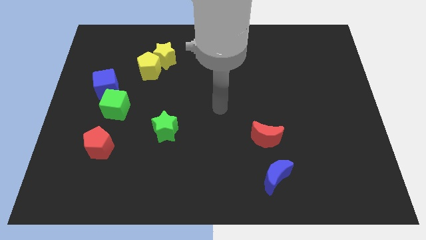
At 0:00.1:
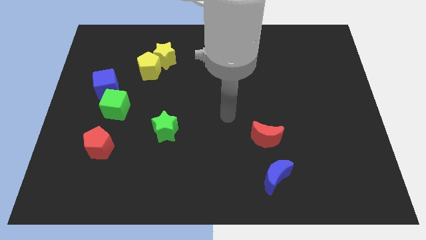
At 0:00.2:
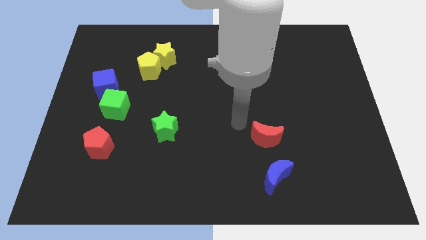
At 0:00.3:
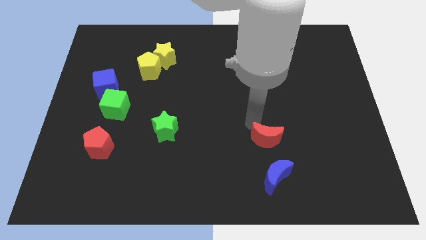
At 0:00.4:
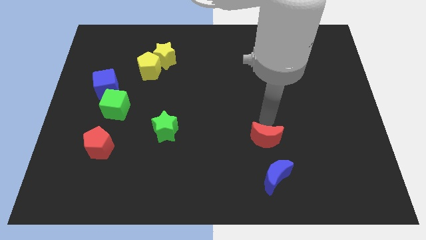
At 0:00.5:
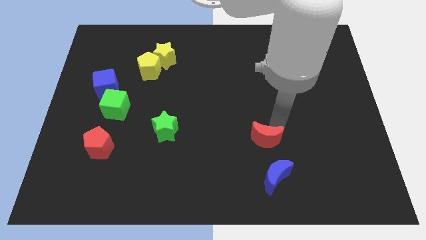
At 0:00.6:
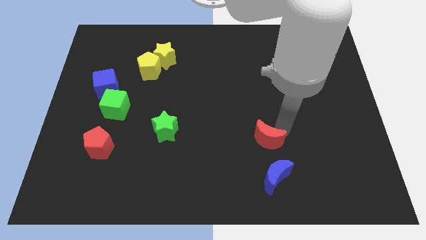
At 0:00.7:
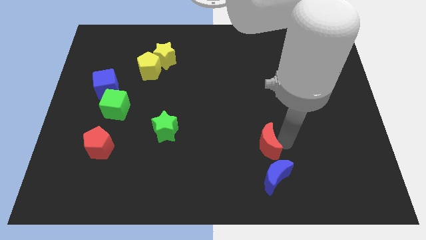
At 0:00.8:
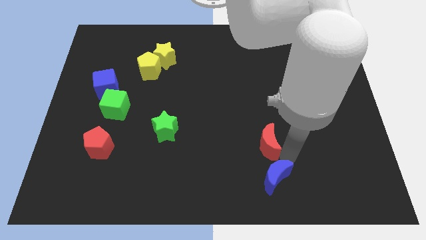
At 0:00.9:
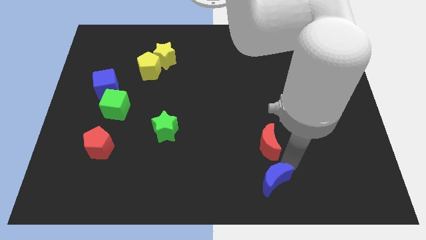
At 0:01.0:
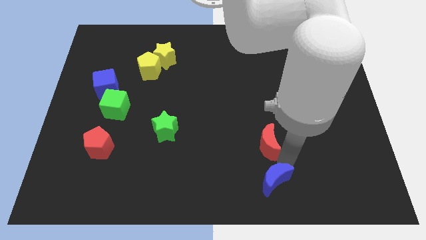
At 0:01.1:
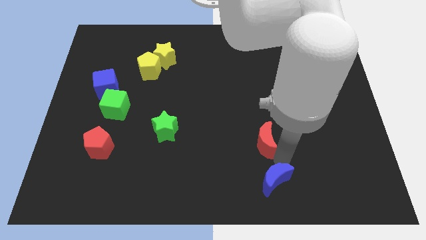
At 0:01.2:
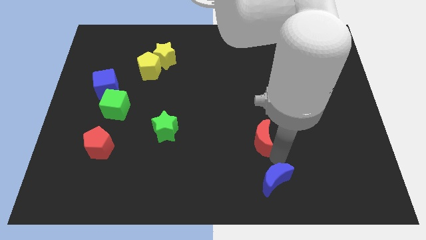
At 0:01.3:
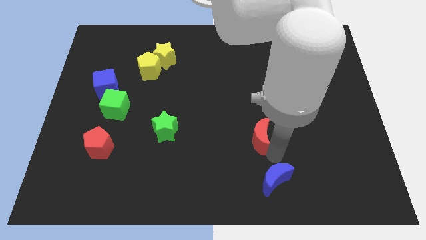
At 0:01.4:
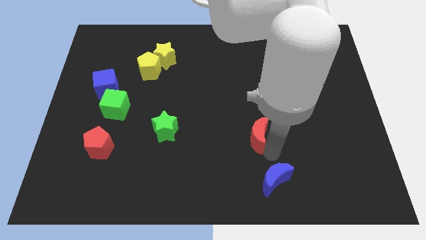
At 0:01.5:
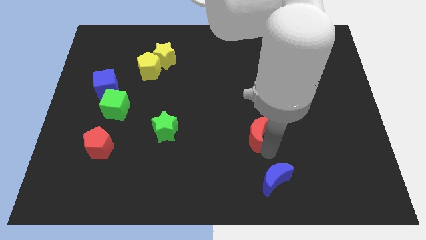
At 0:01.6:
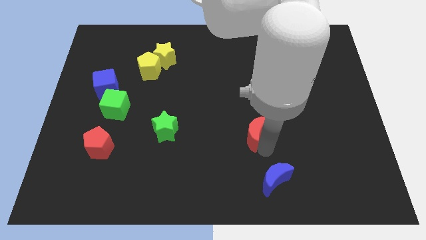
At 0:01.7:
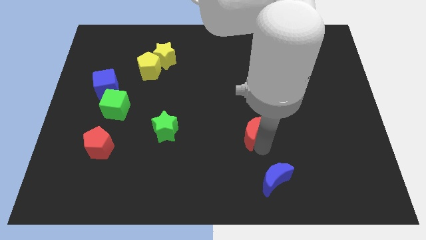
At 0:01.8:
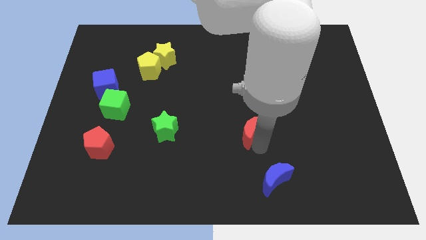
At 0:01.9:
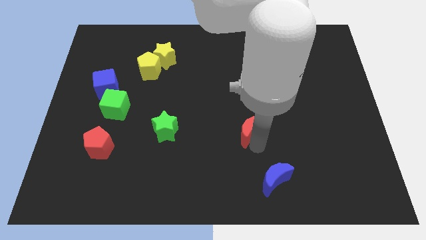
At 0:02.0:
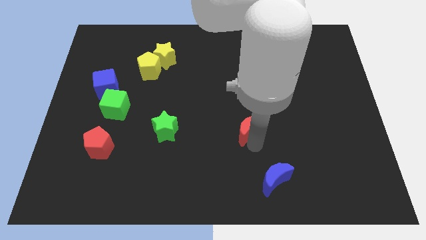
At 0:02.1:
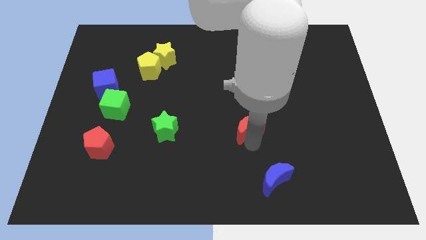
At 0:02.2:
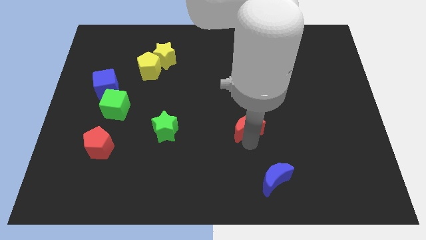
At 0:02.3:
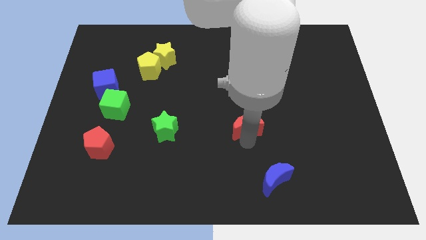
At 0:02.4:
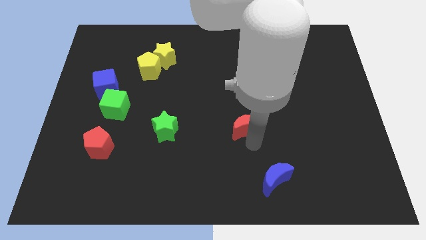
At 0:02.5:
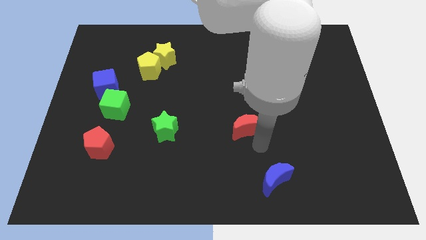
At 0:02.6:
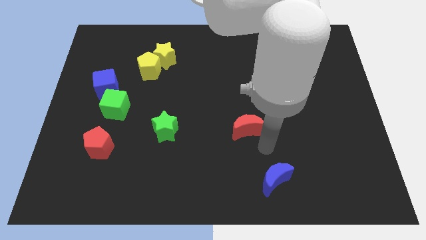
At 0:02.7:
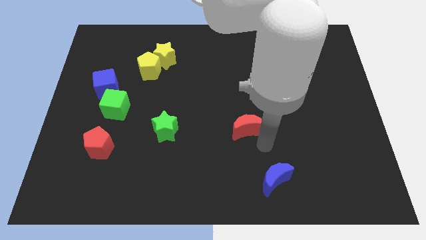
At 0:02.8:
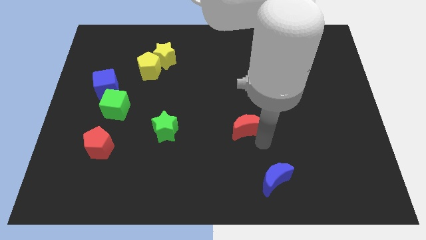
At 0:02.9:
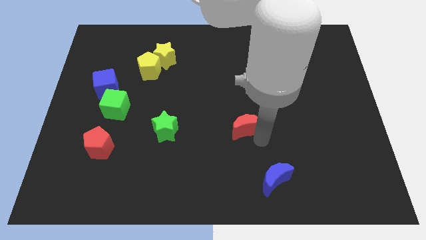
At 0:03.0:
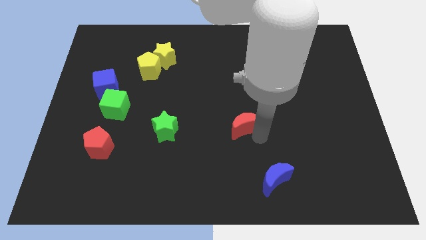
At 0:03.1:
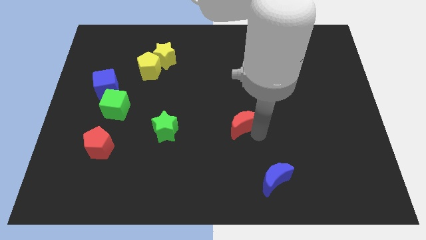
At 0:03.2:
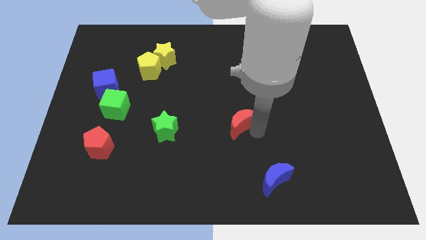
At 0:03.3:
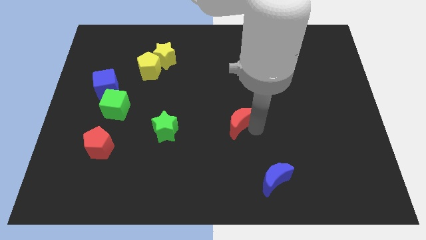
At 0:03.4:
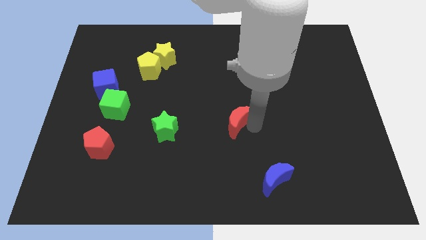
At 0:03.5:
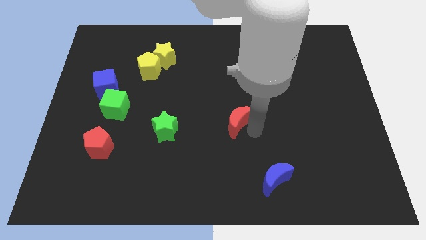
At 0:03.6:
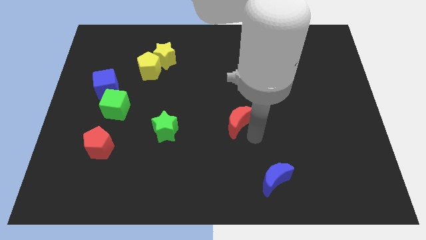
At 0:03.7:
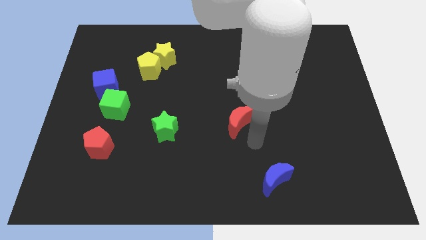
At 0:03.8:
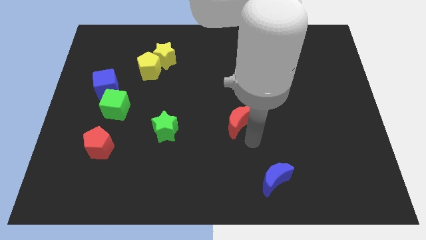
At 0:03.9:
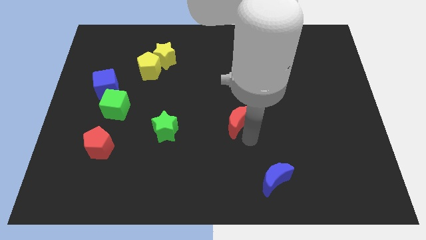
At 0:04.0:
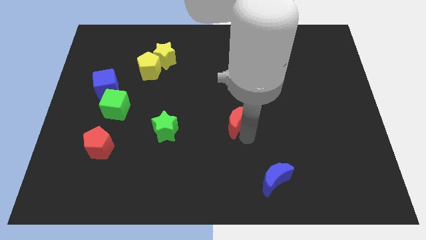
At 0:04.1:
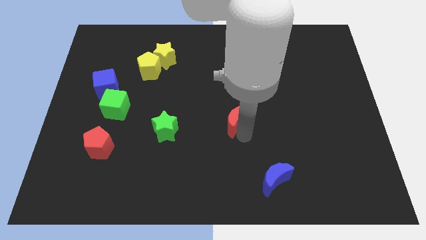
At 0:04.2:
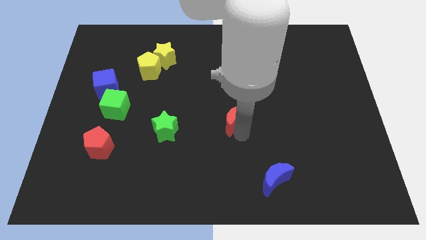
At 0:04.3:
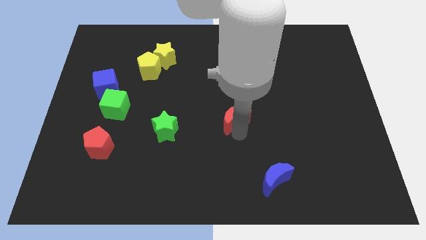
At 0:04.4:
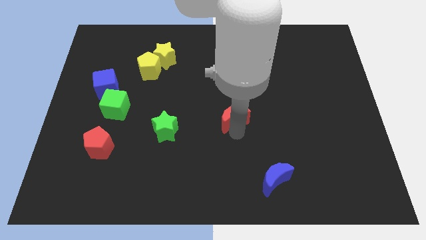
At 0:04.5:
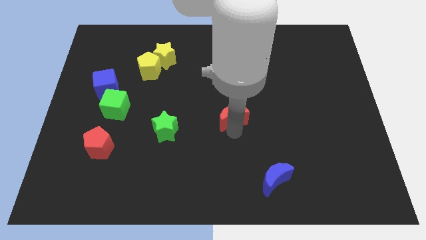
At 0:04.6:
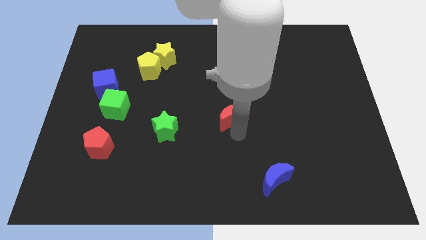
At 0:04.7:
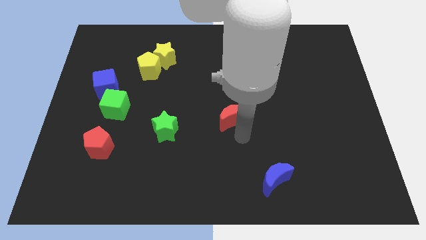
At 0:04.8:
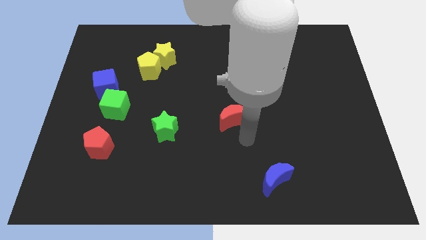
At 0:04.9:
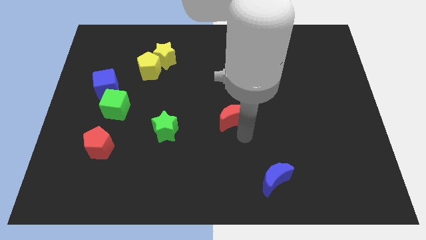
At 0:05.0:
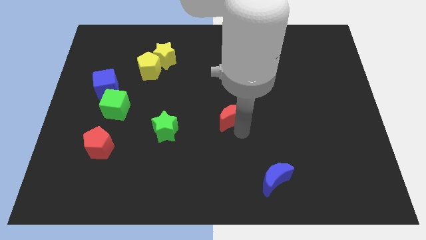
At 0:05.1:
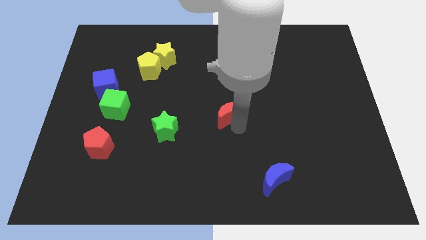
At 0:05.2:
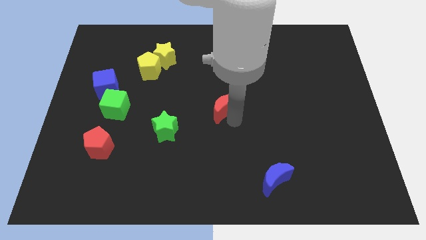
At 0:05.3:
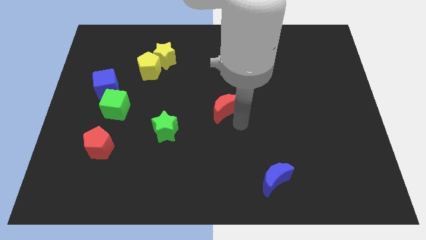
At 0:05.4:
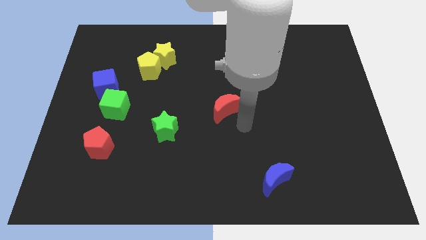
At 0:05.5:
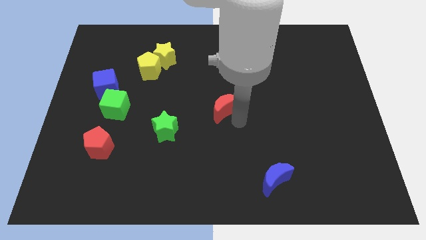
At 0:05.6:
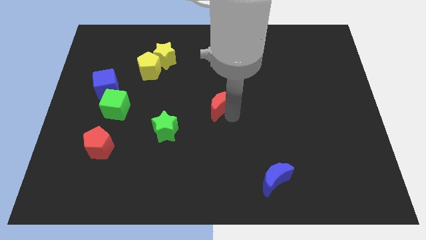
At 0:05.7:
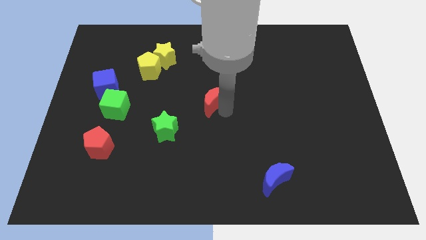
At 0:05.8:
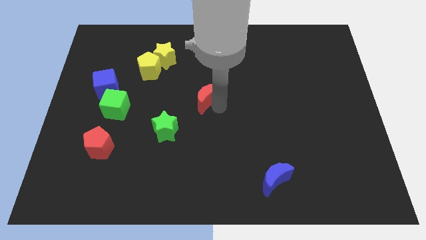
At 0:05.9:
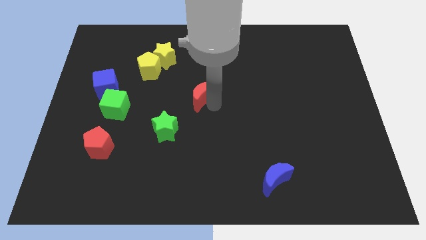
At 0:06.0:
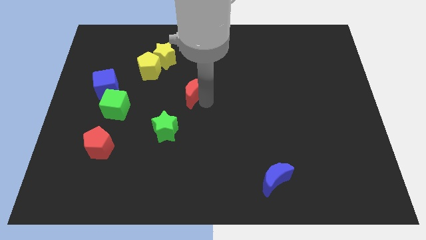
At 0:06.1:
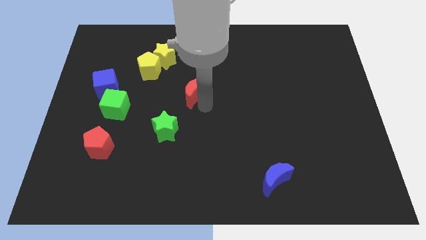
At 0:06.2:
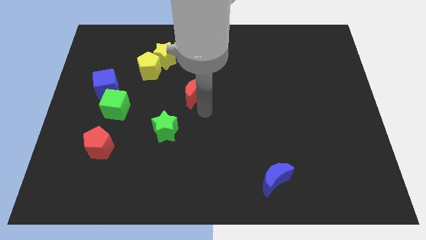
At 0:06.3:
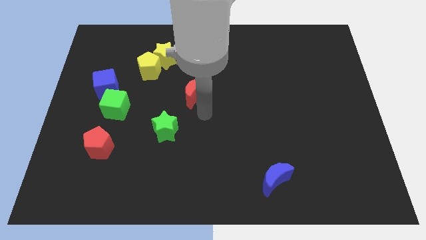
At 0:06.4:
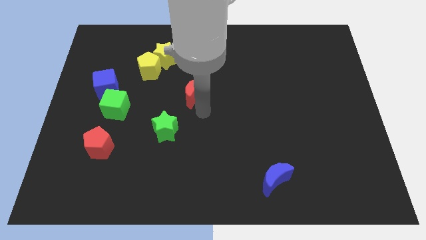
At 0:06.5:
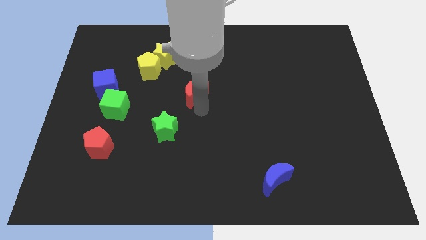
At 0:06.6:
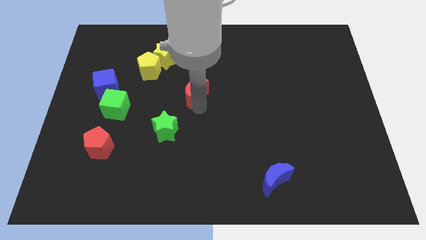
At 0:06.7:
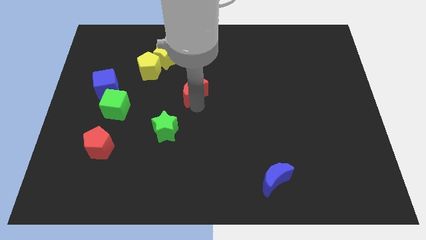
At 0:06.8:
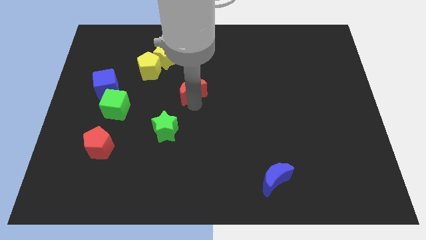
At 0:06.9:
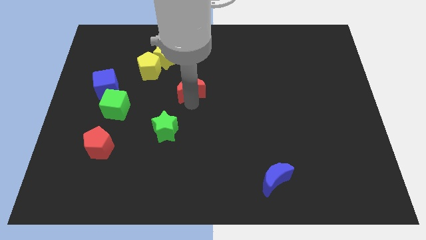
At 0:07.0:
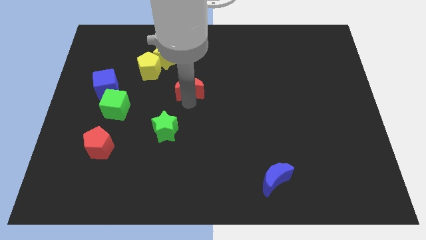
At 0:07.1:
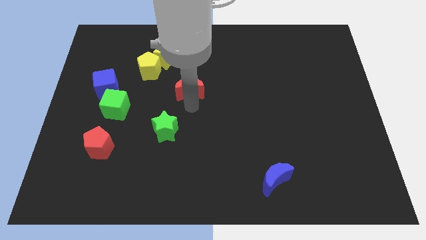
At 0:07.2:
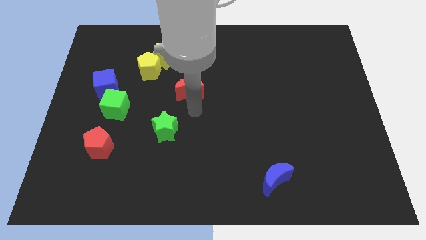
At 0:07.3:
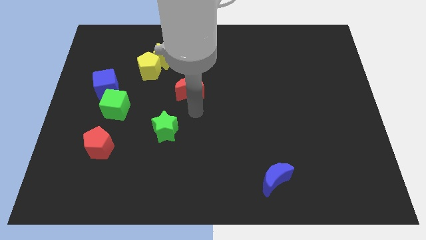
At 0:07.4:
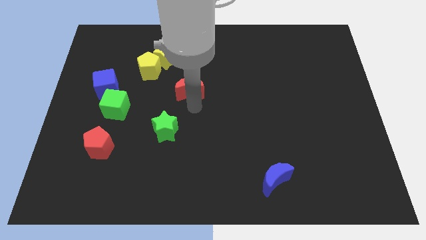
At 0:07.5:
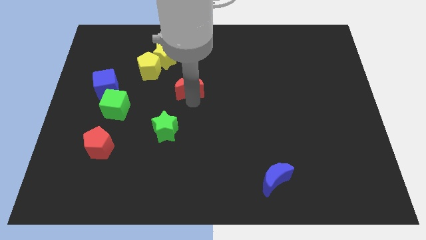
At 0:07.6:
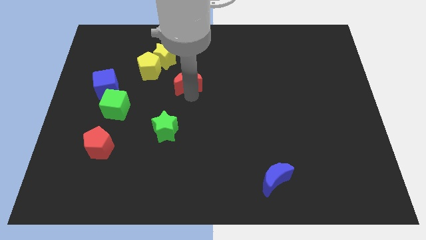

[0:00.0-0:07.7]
push the red moon to the bottom right side of the yellow star
